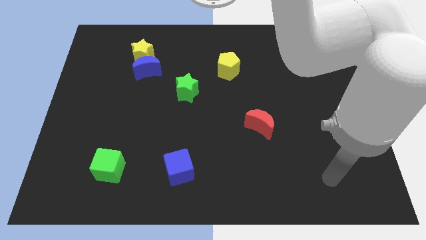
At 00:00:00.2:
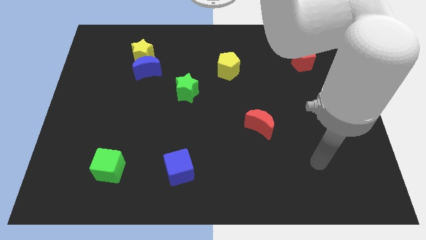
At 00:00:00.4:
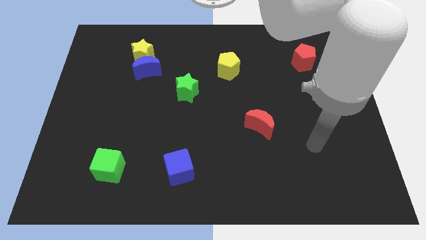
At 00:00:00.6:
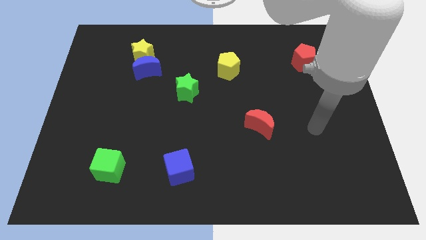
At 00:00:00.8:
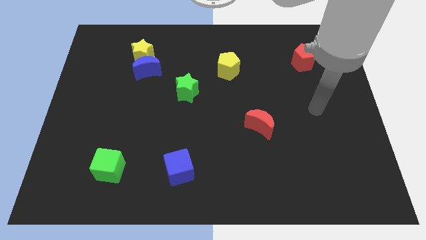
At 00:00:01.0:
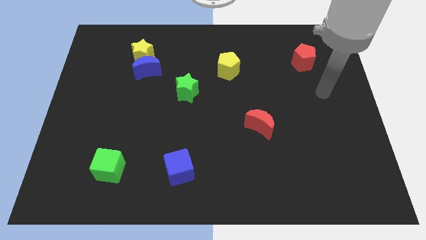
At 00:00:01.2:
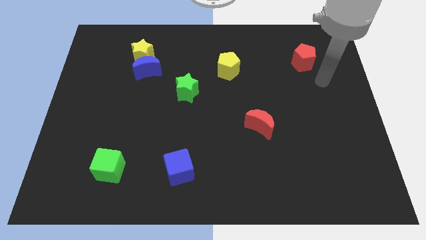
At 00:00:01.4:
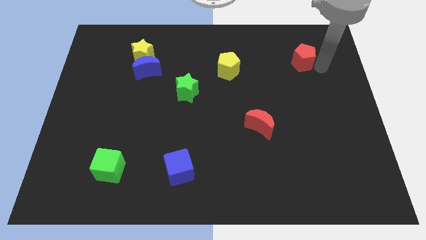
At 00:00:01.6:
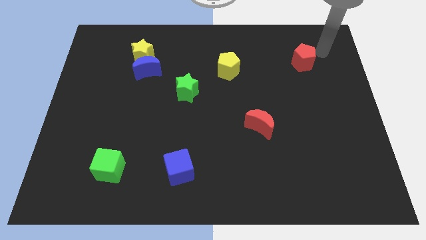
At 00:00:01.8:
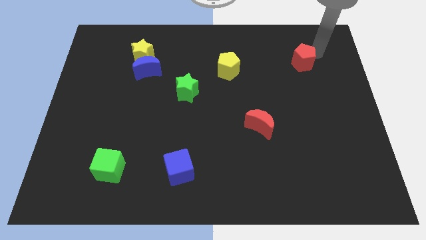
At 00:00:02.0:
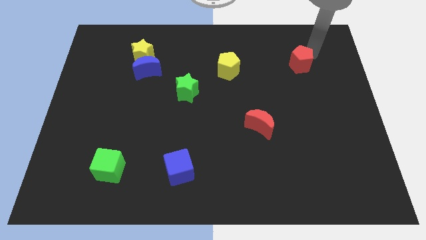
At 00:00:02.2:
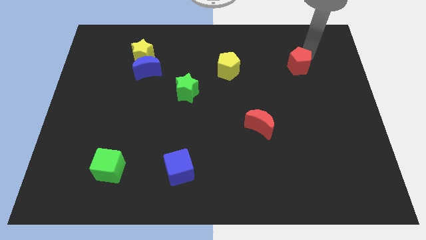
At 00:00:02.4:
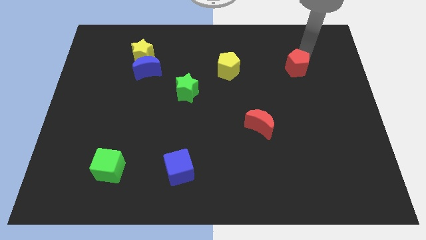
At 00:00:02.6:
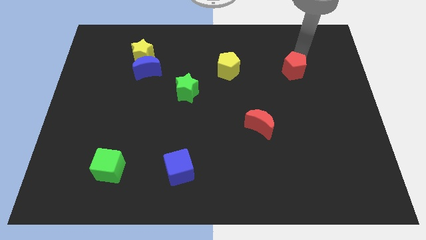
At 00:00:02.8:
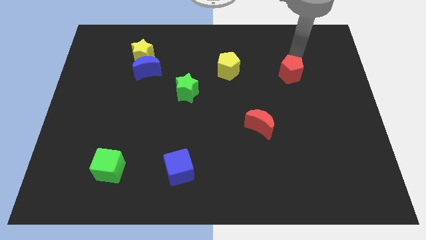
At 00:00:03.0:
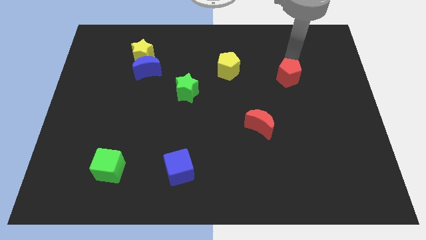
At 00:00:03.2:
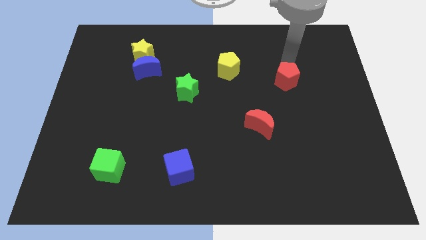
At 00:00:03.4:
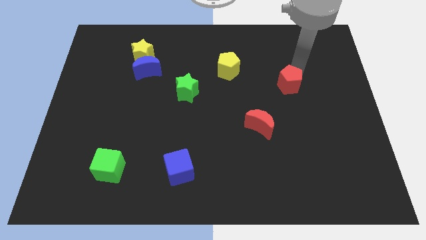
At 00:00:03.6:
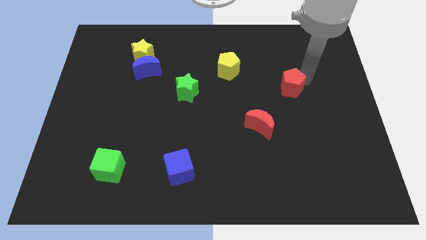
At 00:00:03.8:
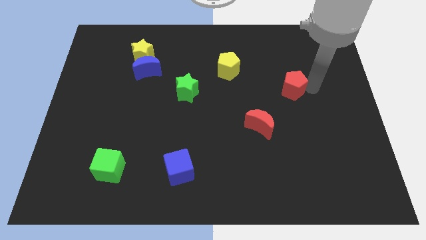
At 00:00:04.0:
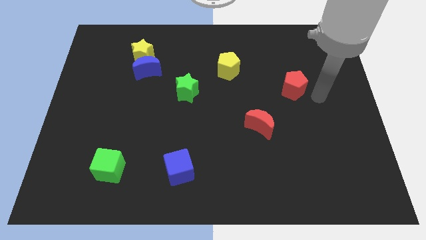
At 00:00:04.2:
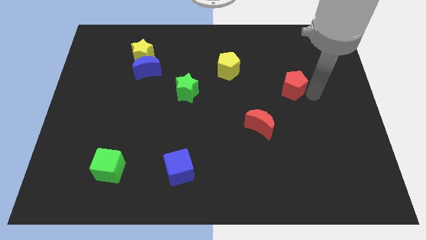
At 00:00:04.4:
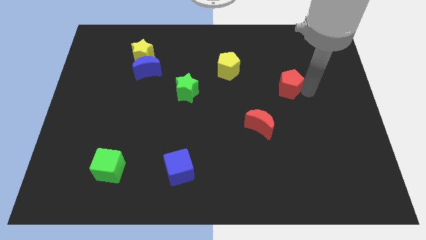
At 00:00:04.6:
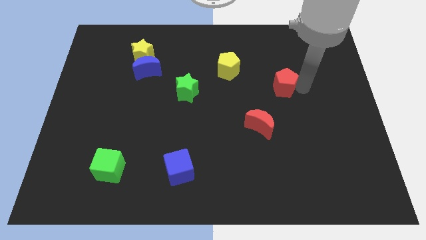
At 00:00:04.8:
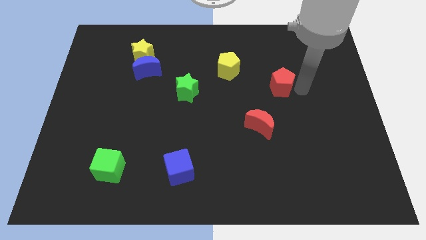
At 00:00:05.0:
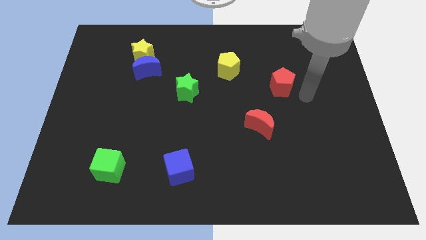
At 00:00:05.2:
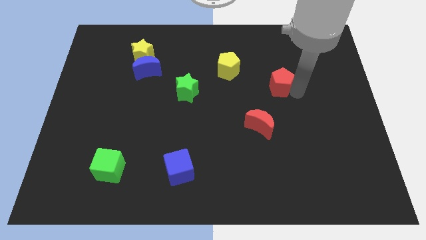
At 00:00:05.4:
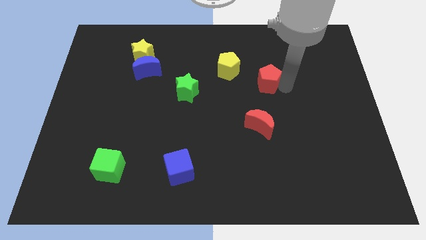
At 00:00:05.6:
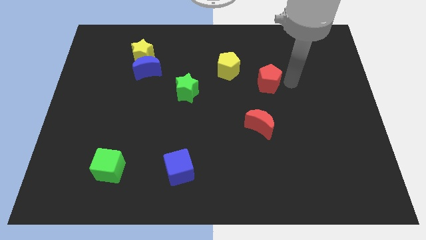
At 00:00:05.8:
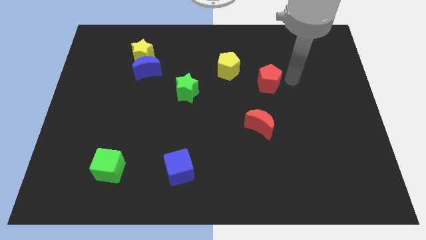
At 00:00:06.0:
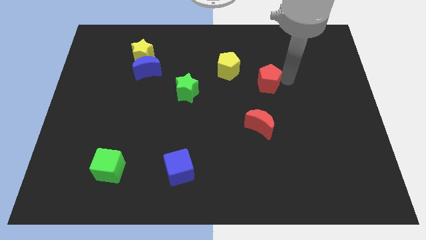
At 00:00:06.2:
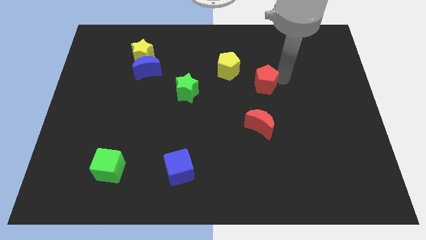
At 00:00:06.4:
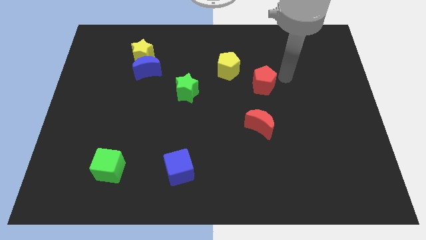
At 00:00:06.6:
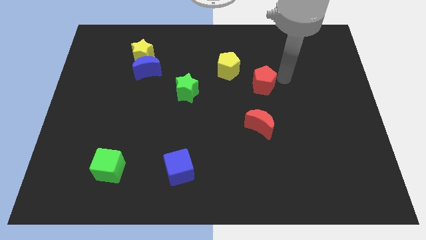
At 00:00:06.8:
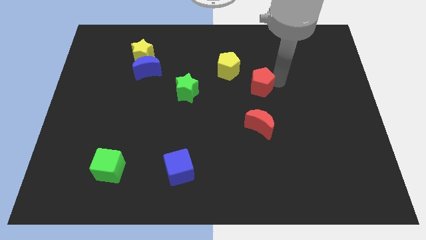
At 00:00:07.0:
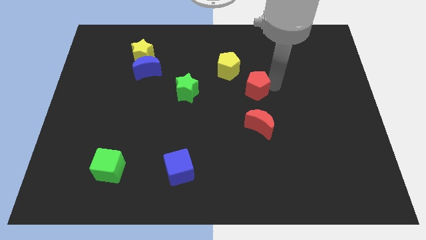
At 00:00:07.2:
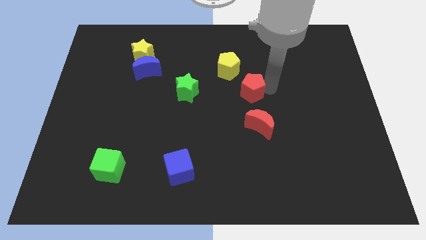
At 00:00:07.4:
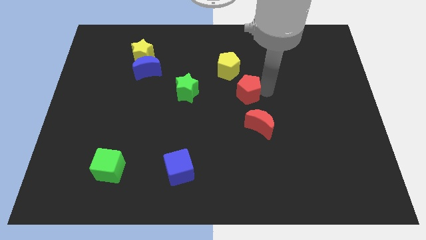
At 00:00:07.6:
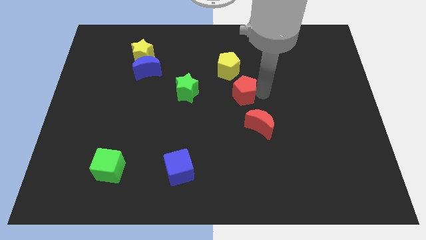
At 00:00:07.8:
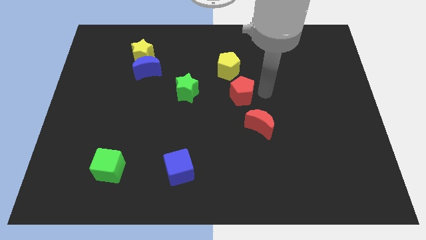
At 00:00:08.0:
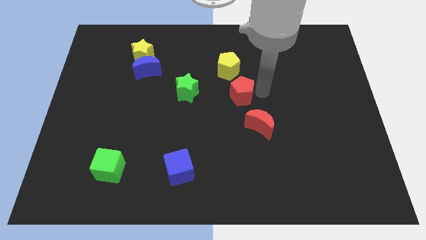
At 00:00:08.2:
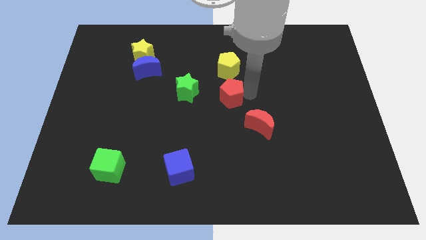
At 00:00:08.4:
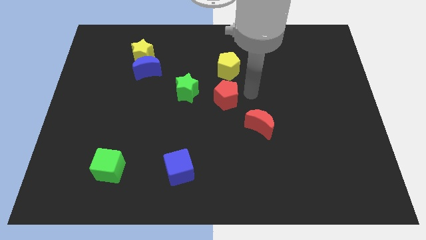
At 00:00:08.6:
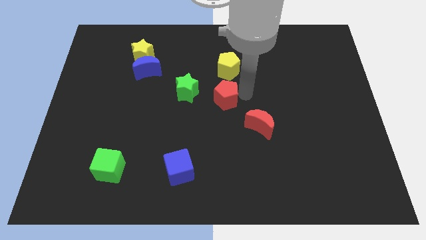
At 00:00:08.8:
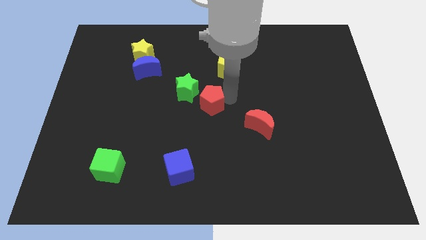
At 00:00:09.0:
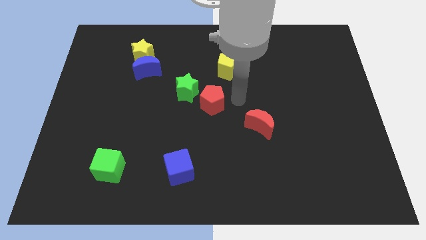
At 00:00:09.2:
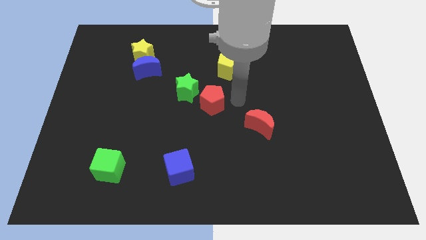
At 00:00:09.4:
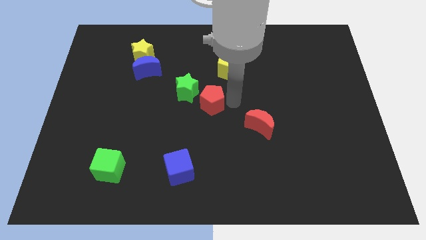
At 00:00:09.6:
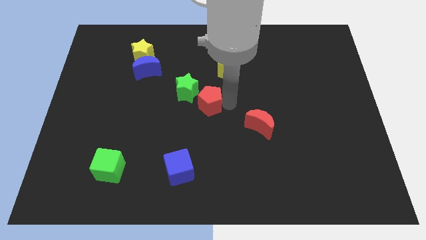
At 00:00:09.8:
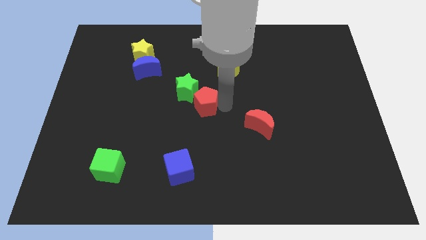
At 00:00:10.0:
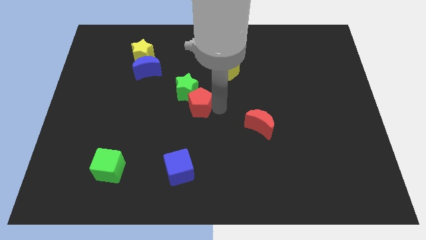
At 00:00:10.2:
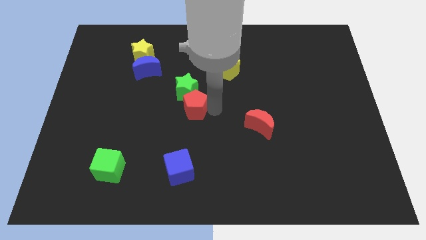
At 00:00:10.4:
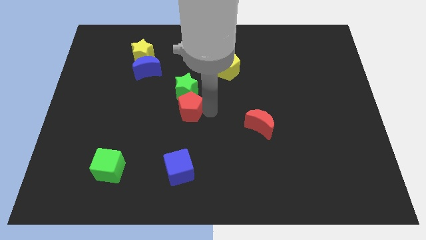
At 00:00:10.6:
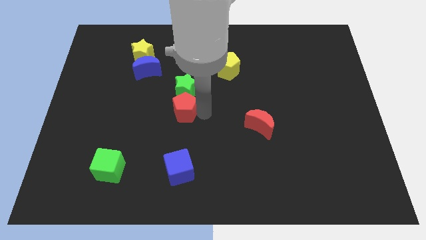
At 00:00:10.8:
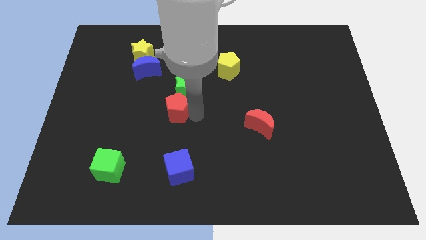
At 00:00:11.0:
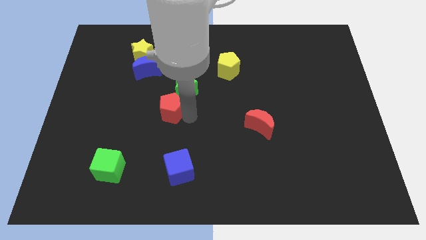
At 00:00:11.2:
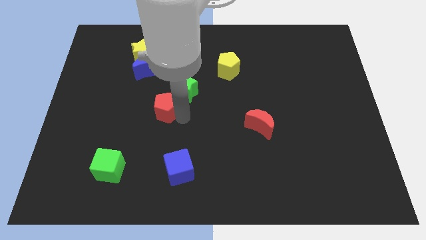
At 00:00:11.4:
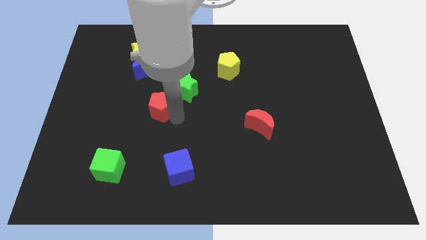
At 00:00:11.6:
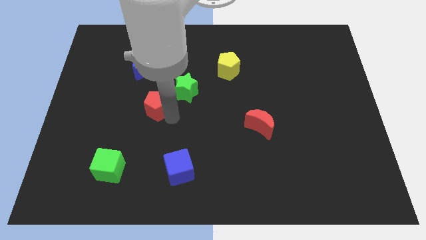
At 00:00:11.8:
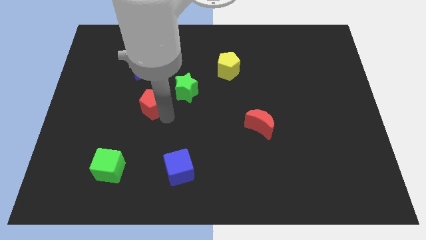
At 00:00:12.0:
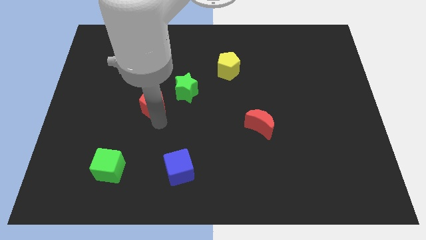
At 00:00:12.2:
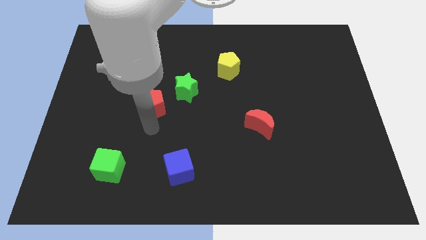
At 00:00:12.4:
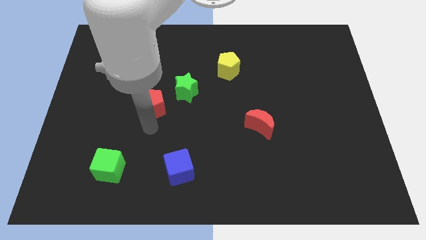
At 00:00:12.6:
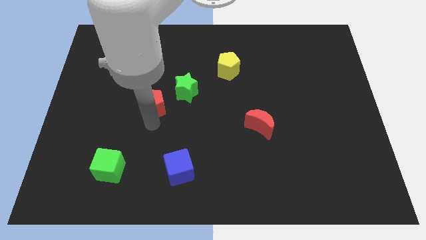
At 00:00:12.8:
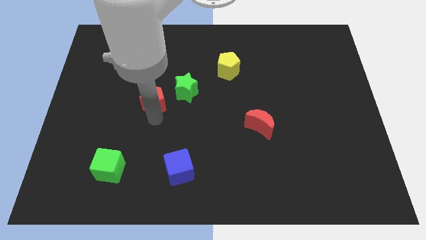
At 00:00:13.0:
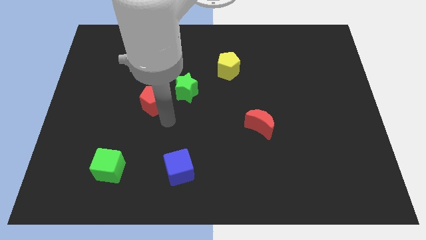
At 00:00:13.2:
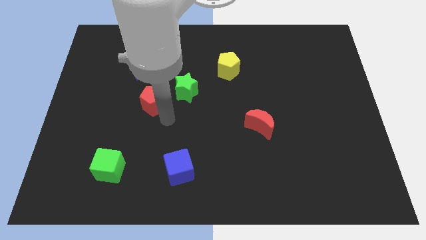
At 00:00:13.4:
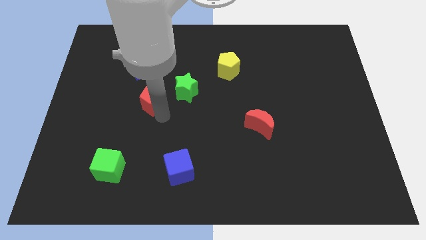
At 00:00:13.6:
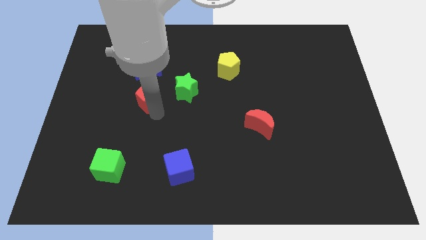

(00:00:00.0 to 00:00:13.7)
put the red pentagon below the yellow star

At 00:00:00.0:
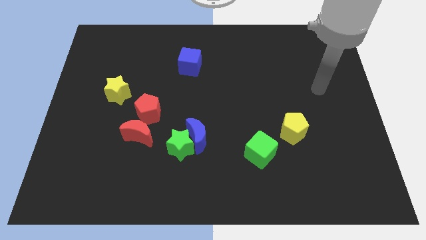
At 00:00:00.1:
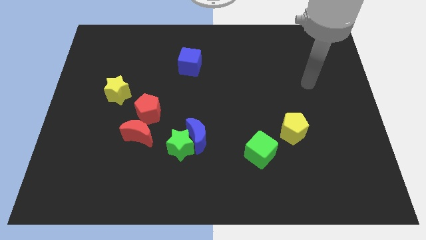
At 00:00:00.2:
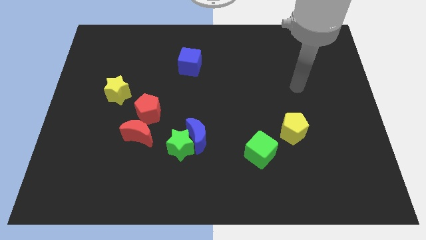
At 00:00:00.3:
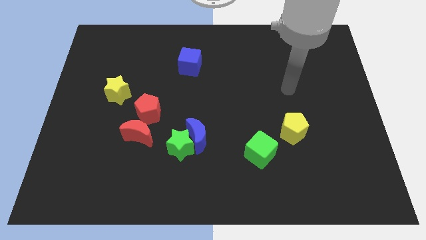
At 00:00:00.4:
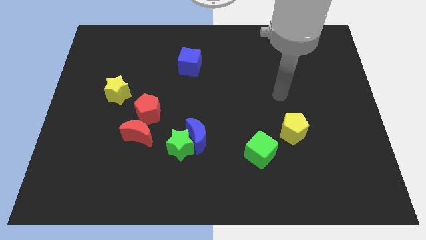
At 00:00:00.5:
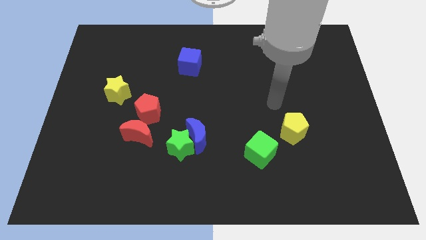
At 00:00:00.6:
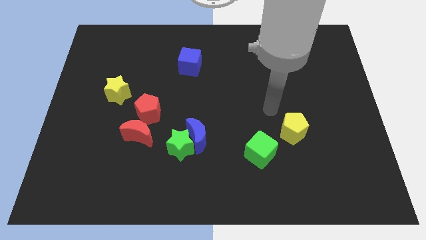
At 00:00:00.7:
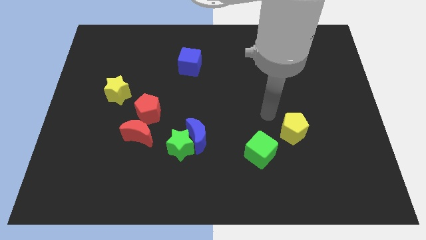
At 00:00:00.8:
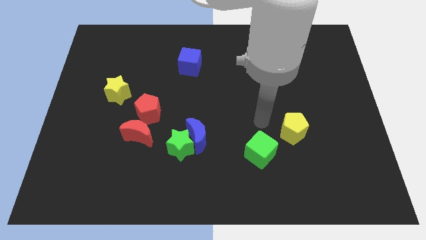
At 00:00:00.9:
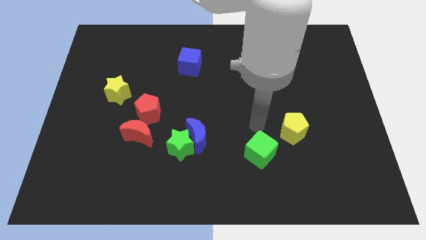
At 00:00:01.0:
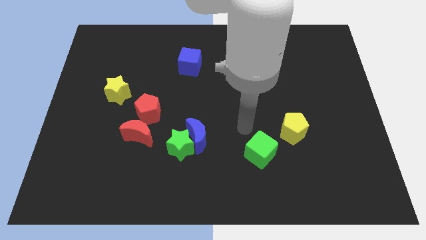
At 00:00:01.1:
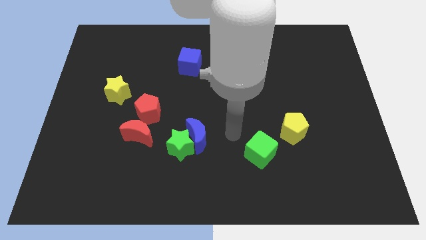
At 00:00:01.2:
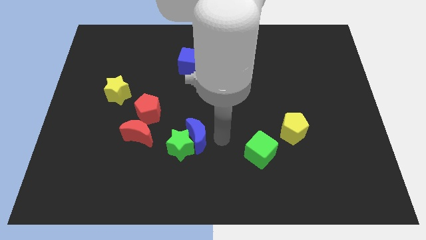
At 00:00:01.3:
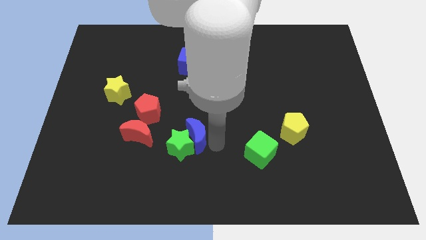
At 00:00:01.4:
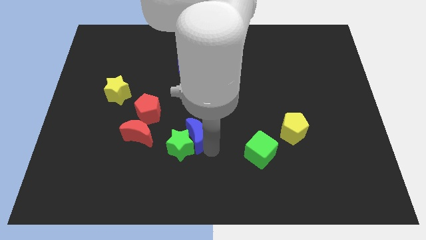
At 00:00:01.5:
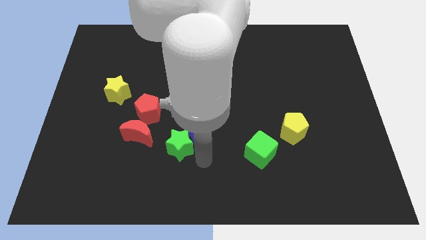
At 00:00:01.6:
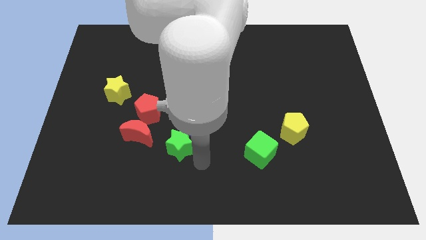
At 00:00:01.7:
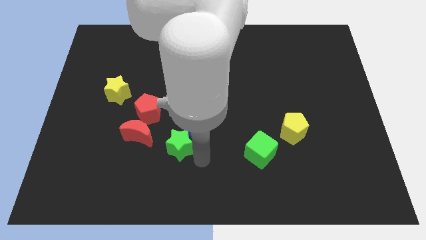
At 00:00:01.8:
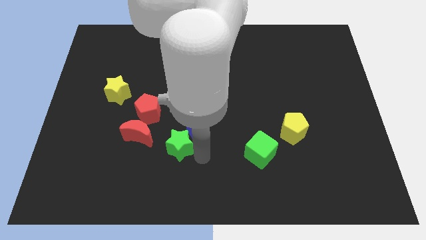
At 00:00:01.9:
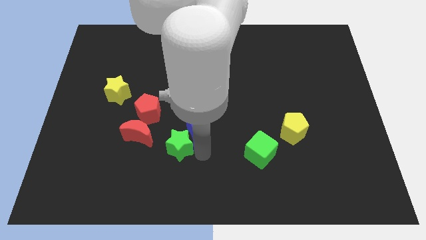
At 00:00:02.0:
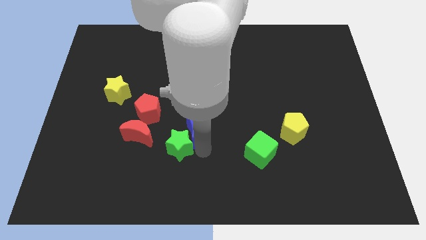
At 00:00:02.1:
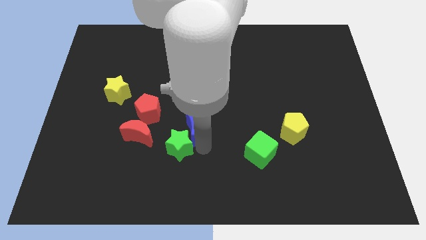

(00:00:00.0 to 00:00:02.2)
move the blue moon just right of the red pentagon
